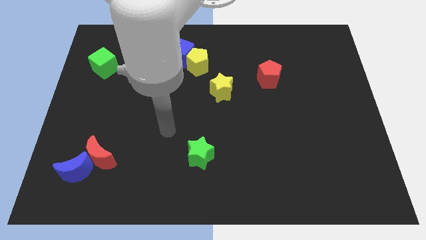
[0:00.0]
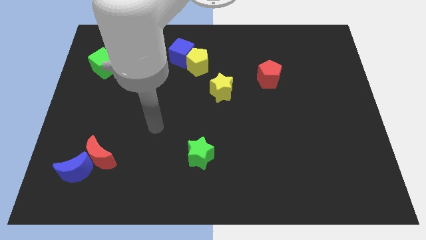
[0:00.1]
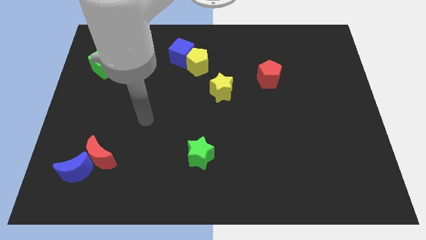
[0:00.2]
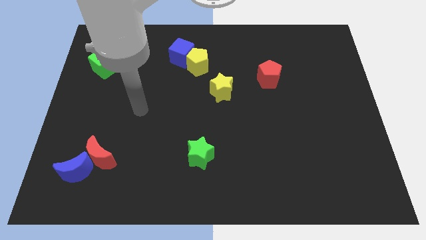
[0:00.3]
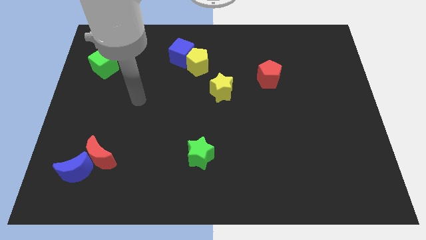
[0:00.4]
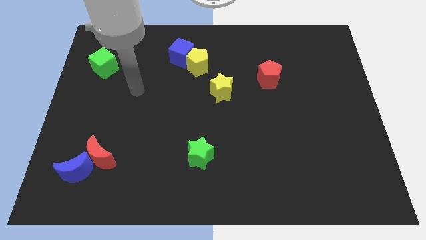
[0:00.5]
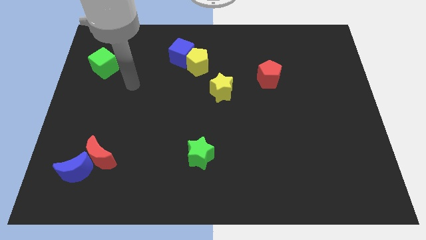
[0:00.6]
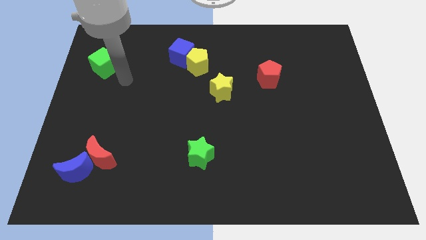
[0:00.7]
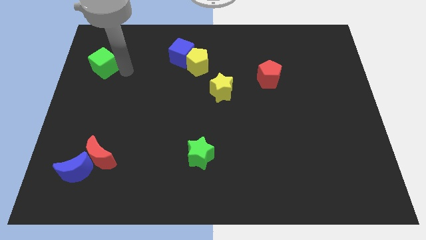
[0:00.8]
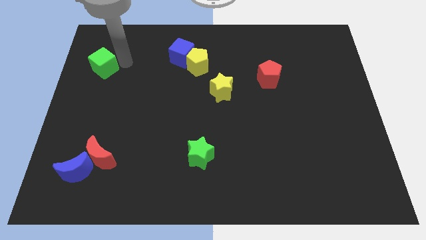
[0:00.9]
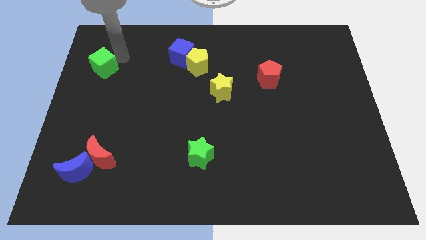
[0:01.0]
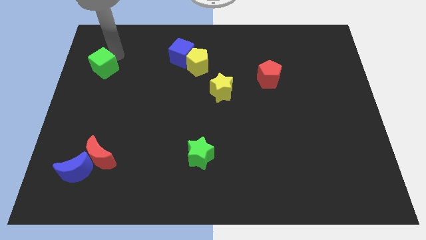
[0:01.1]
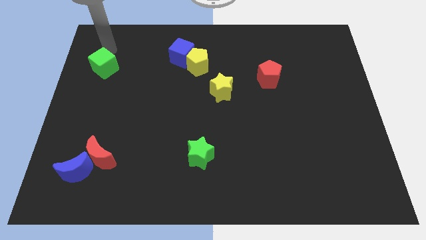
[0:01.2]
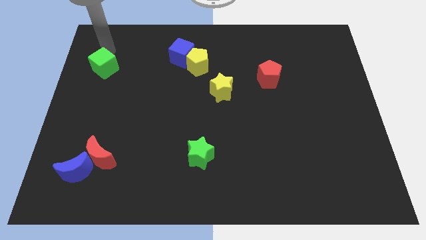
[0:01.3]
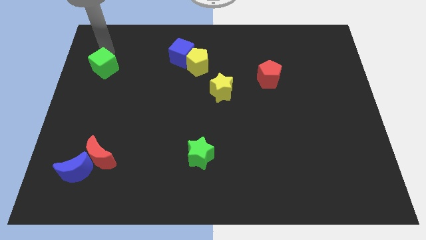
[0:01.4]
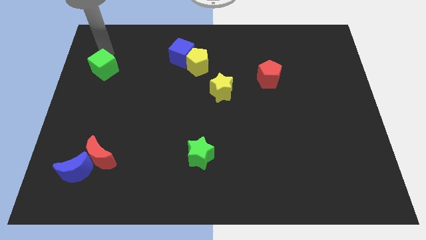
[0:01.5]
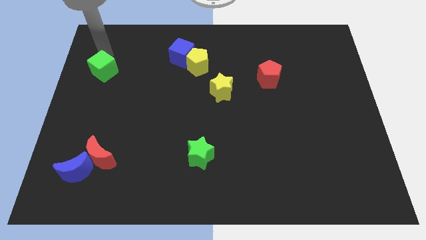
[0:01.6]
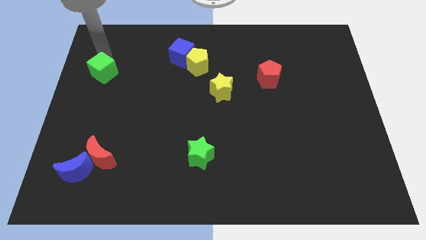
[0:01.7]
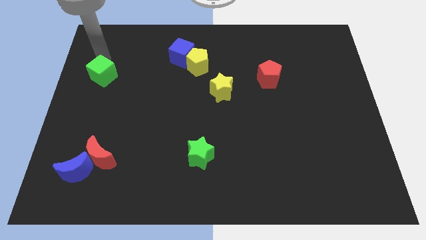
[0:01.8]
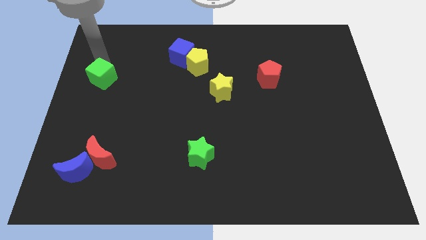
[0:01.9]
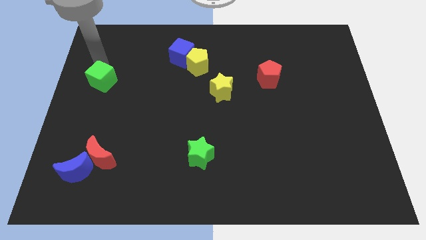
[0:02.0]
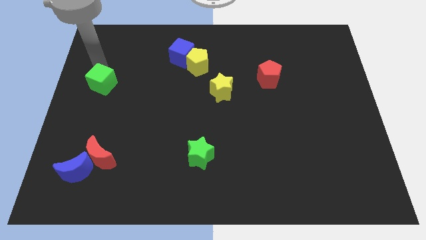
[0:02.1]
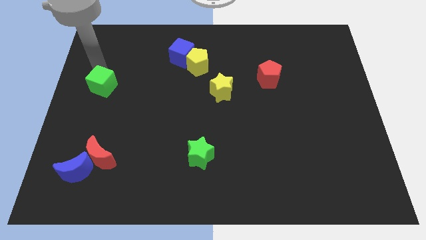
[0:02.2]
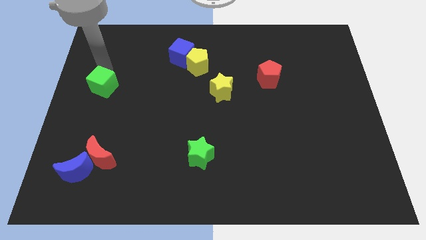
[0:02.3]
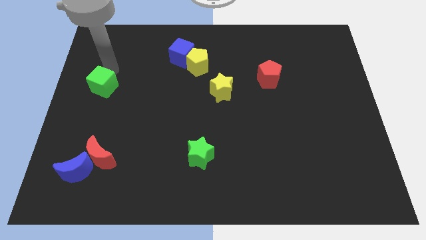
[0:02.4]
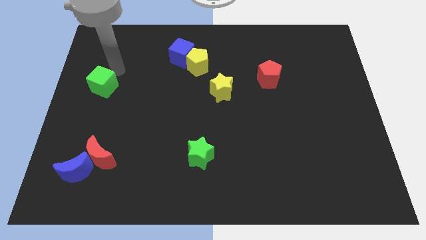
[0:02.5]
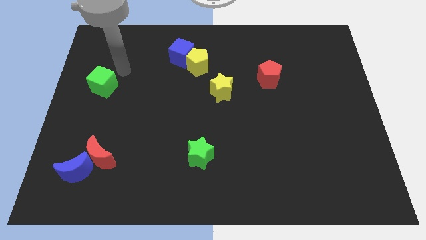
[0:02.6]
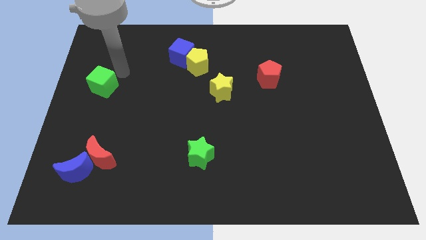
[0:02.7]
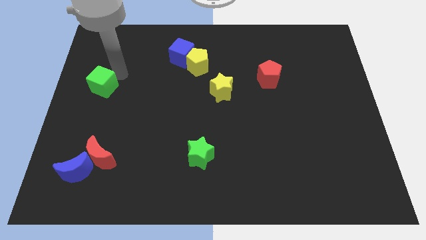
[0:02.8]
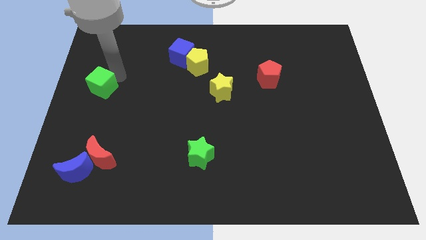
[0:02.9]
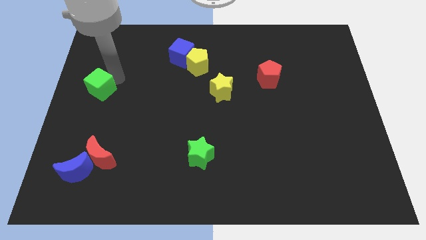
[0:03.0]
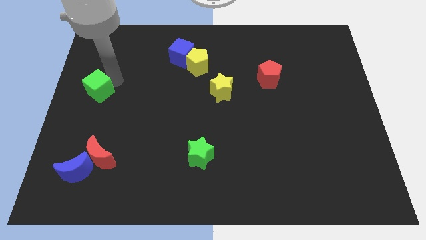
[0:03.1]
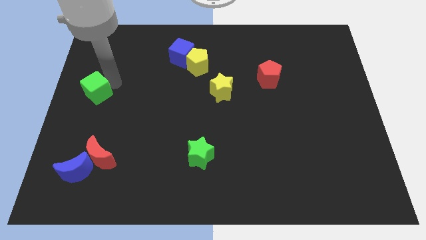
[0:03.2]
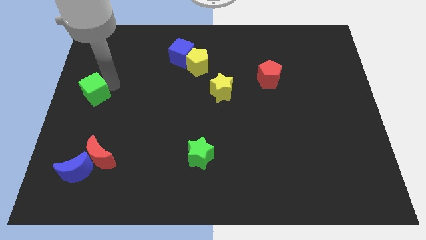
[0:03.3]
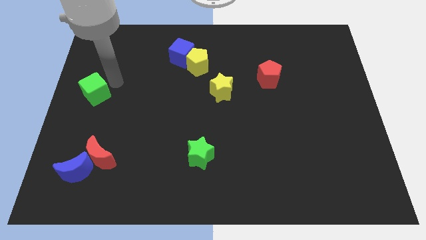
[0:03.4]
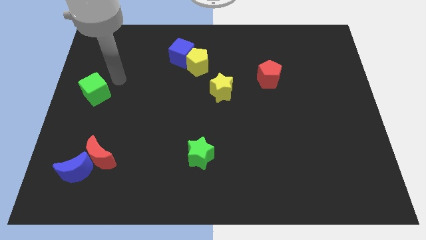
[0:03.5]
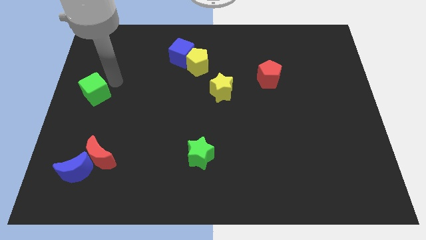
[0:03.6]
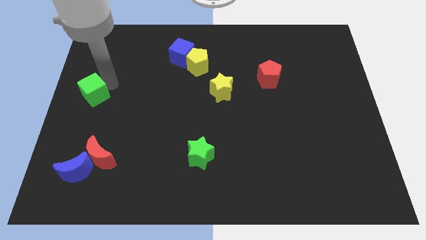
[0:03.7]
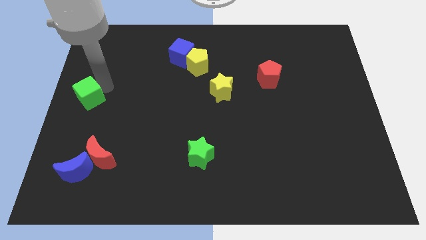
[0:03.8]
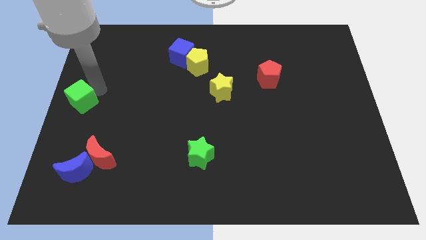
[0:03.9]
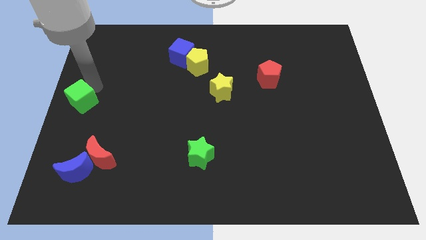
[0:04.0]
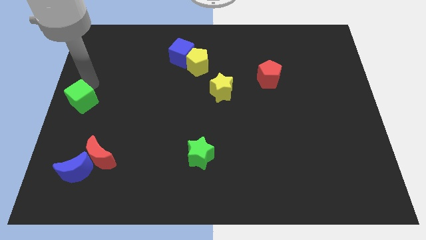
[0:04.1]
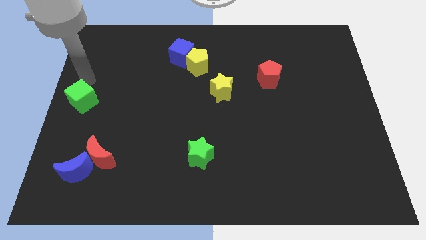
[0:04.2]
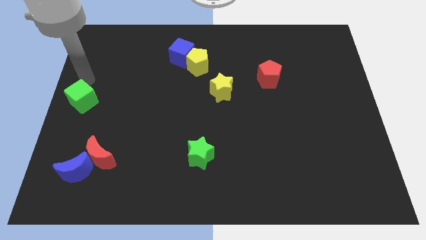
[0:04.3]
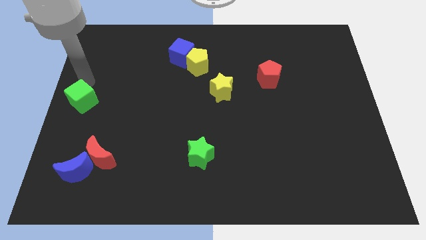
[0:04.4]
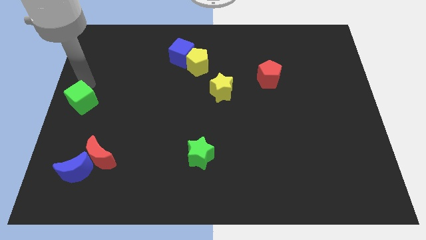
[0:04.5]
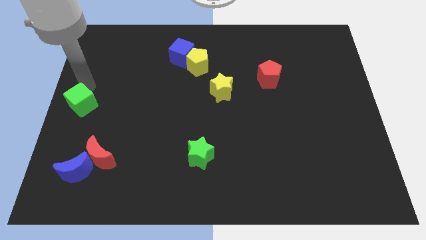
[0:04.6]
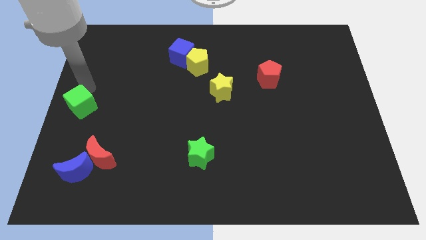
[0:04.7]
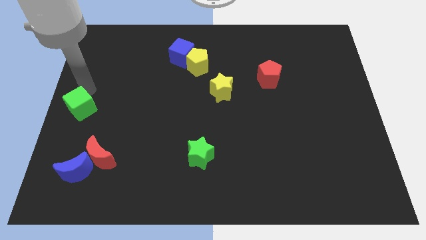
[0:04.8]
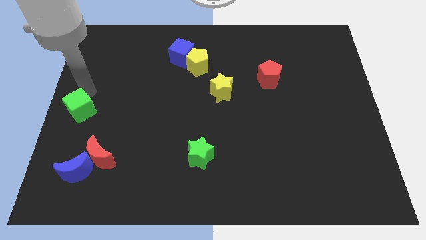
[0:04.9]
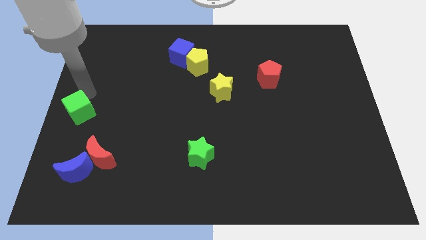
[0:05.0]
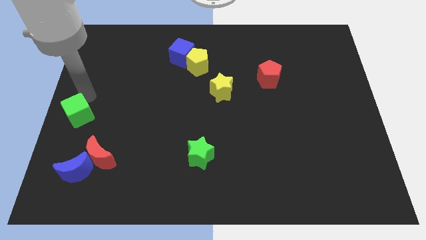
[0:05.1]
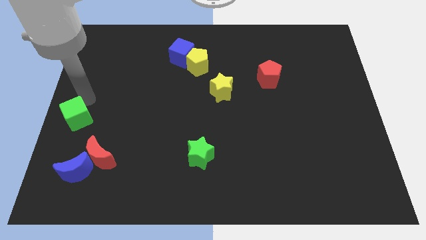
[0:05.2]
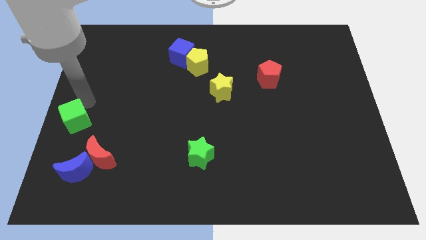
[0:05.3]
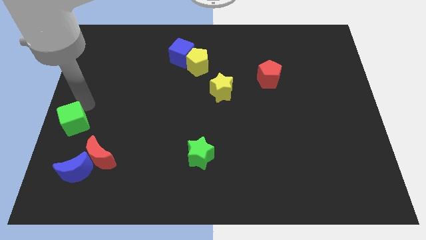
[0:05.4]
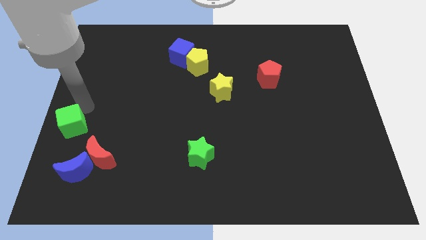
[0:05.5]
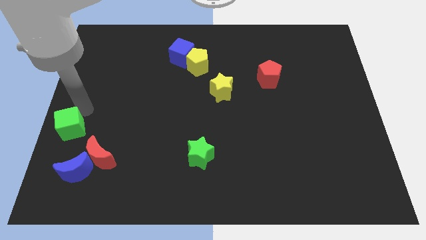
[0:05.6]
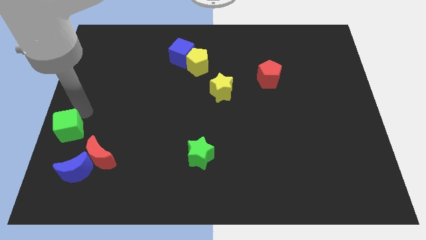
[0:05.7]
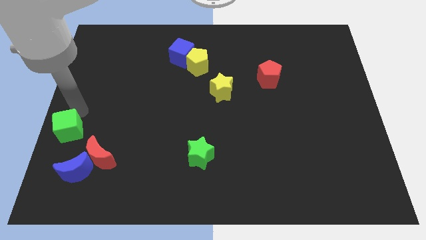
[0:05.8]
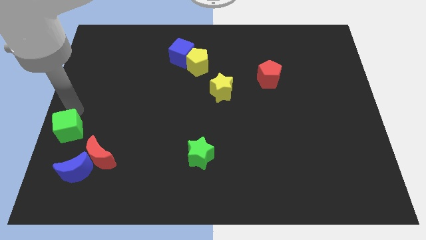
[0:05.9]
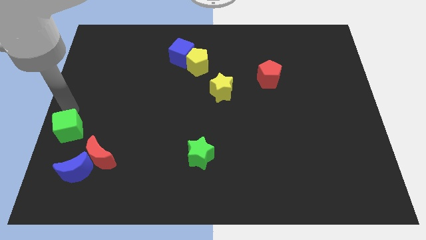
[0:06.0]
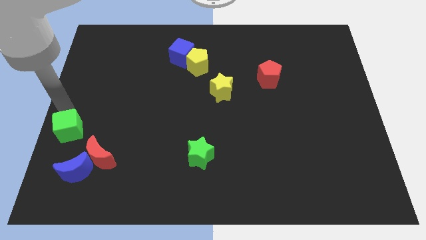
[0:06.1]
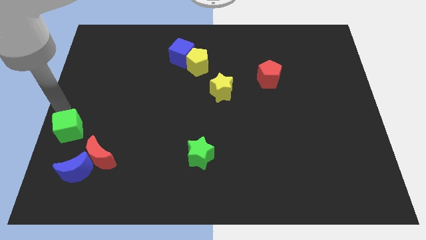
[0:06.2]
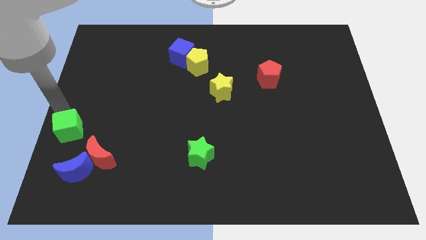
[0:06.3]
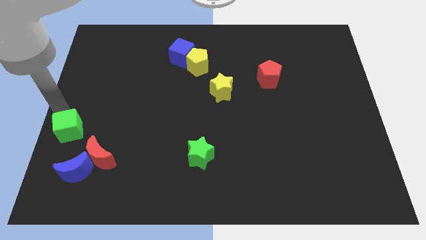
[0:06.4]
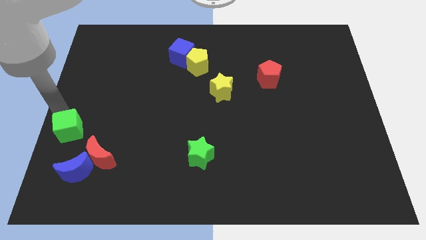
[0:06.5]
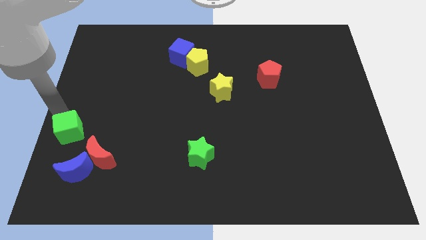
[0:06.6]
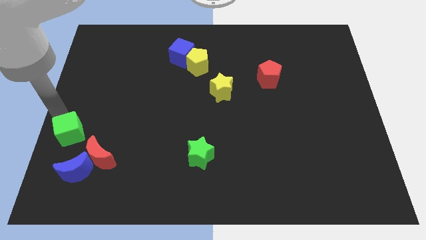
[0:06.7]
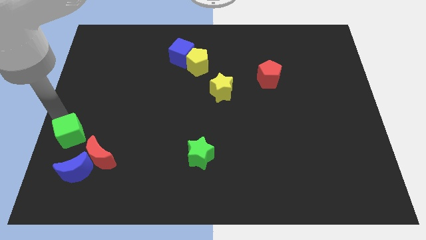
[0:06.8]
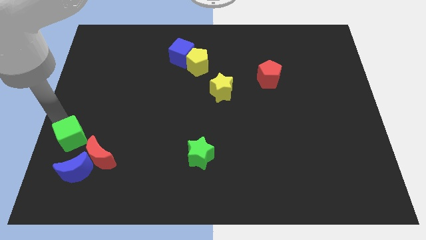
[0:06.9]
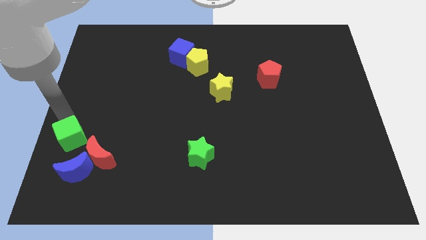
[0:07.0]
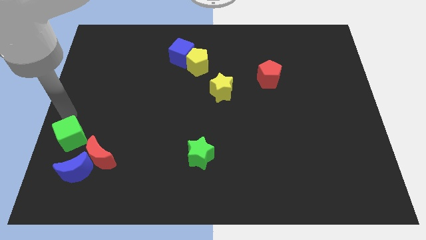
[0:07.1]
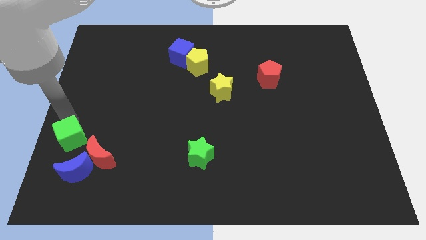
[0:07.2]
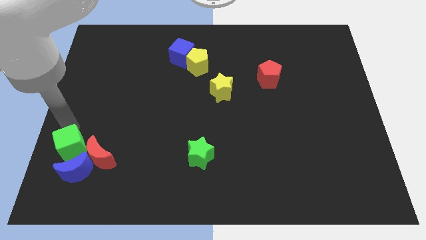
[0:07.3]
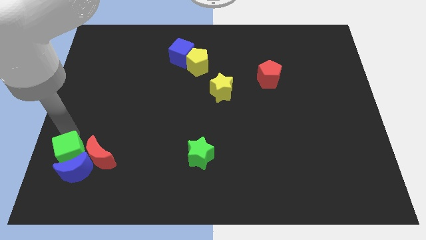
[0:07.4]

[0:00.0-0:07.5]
slide the green cube towards the blue moon
